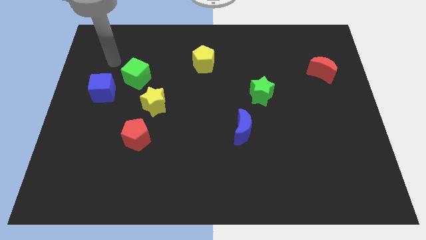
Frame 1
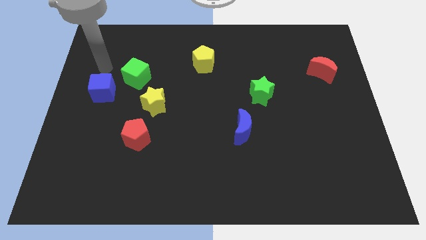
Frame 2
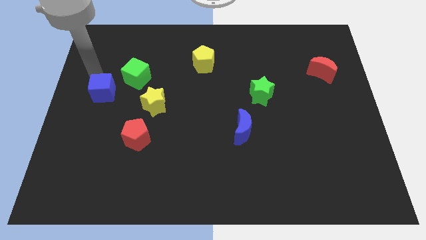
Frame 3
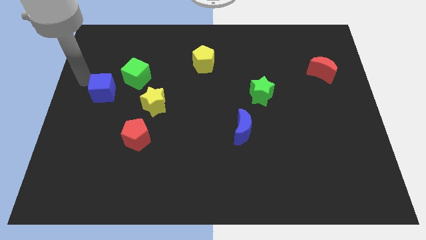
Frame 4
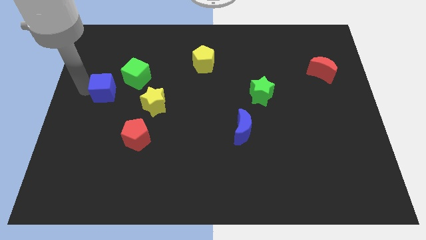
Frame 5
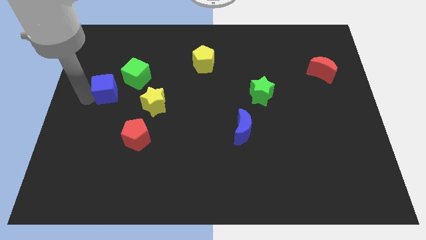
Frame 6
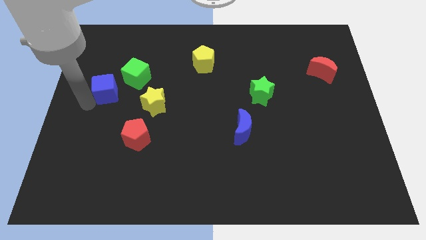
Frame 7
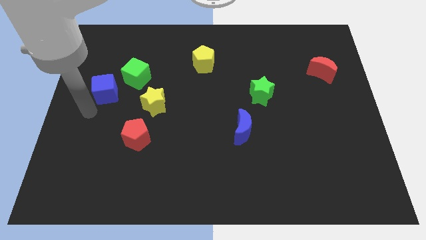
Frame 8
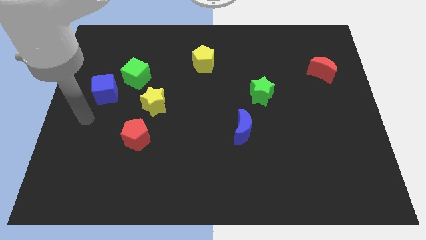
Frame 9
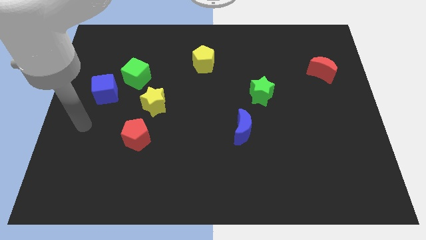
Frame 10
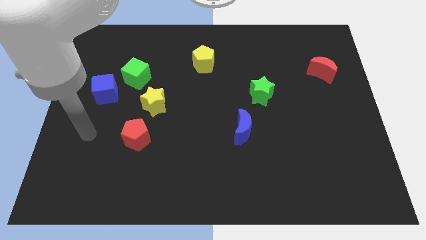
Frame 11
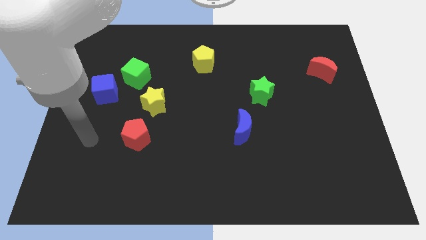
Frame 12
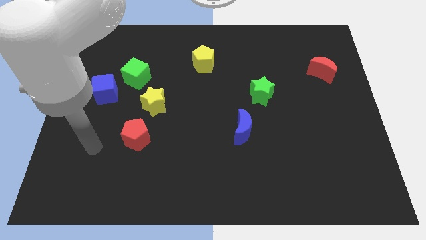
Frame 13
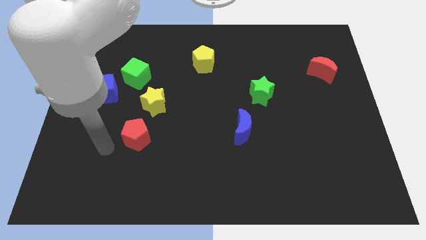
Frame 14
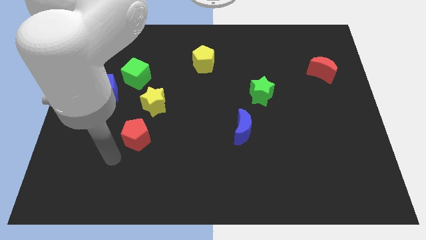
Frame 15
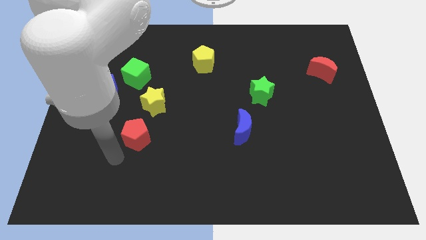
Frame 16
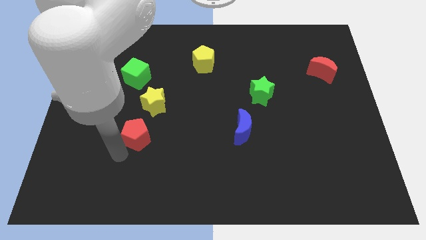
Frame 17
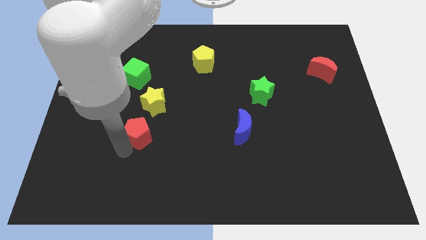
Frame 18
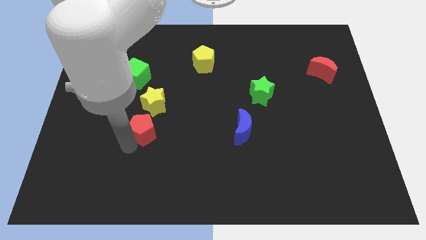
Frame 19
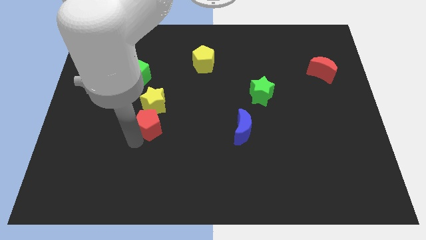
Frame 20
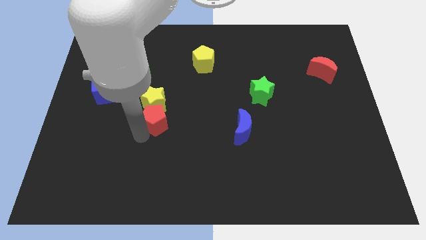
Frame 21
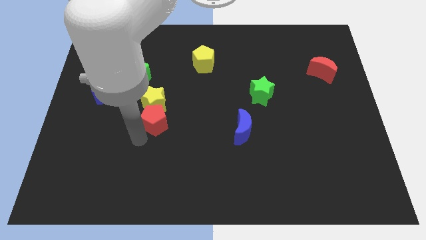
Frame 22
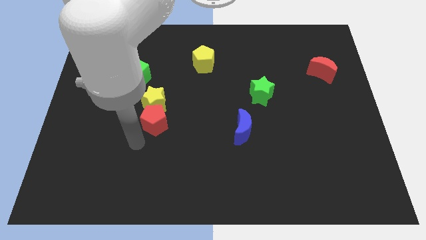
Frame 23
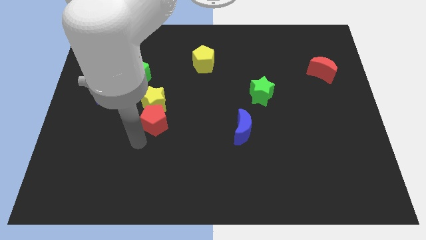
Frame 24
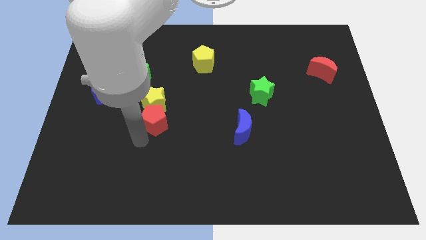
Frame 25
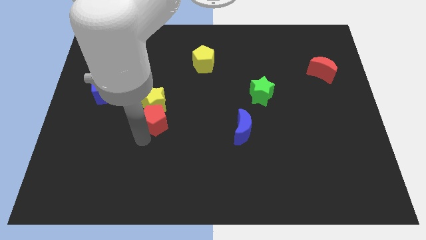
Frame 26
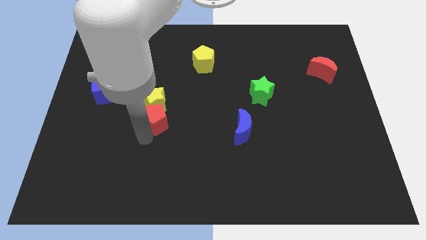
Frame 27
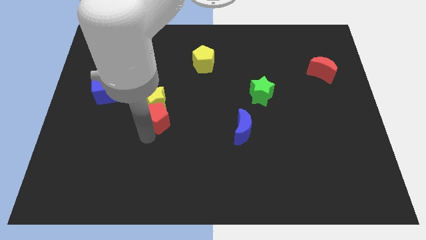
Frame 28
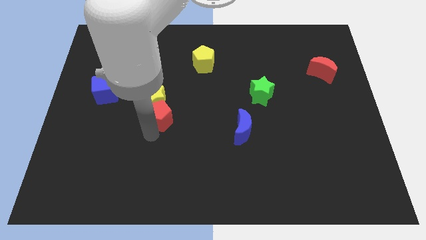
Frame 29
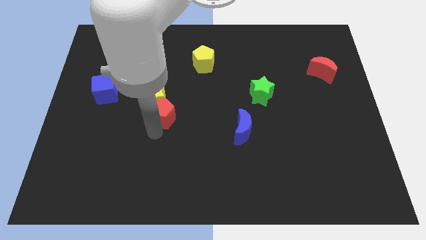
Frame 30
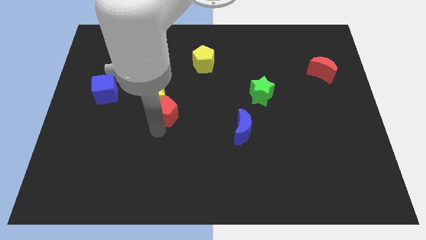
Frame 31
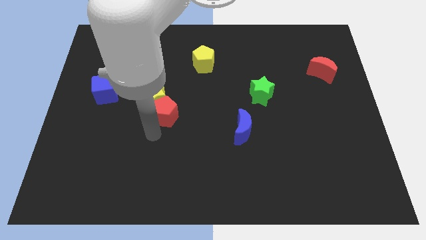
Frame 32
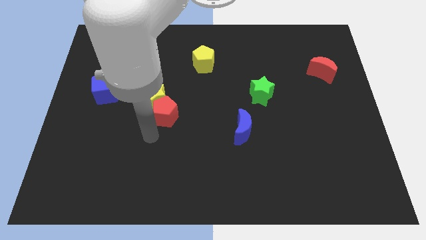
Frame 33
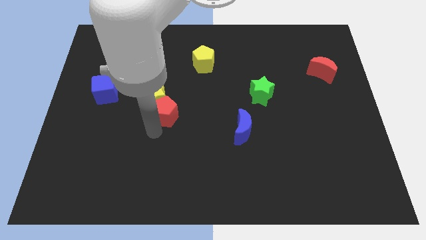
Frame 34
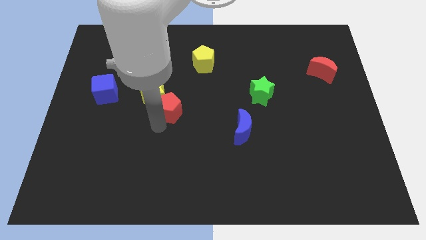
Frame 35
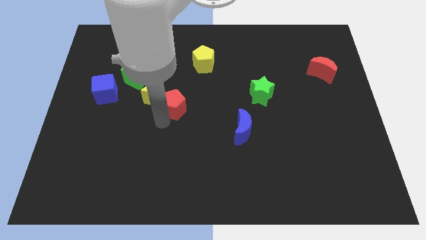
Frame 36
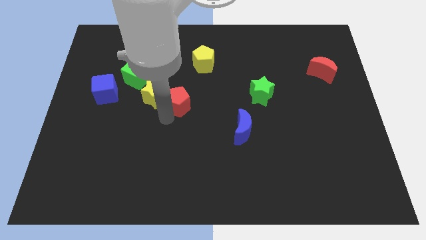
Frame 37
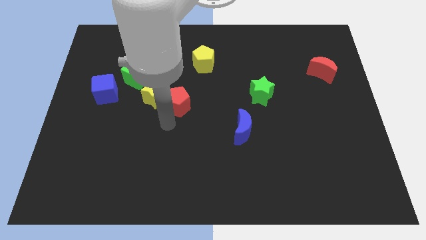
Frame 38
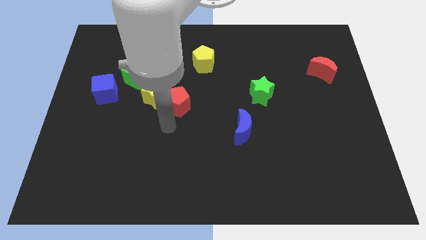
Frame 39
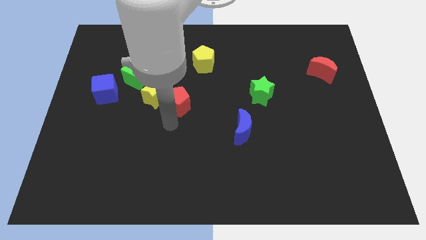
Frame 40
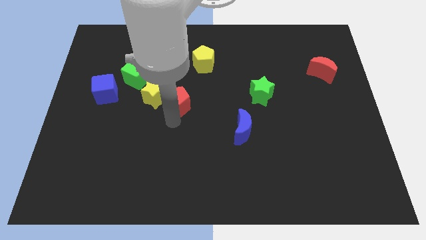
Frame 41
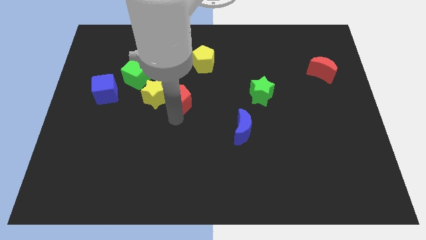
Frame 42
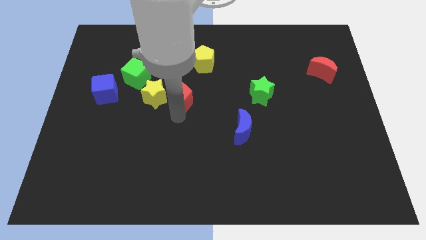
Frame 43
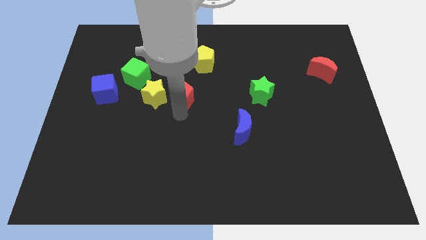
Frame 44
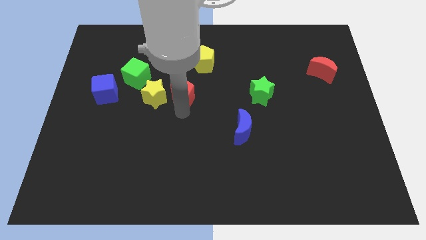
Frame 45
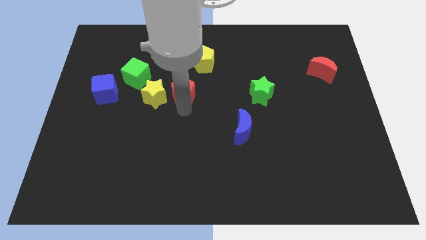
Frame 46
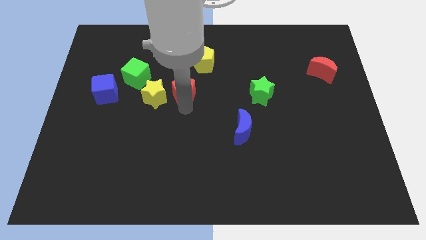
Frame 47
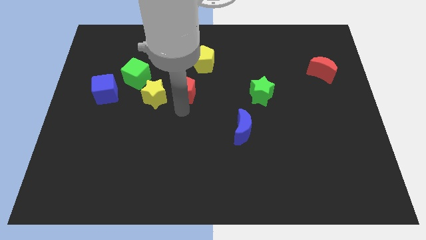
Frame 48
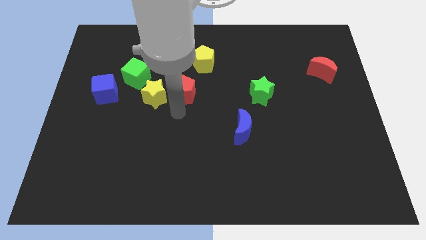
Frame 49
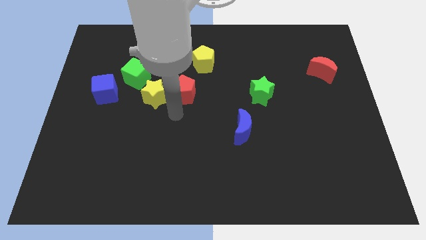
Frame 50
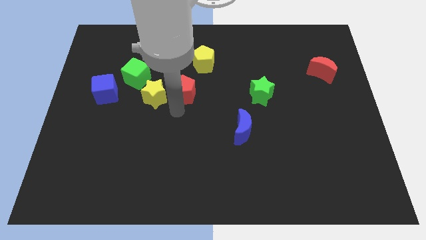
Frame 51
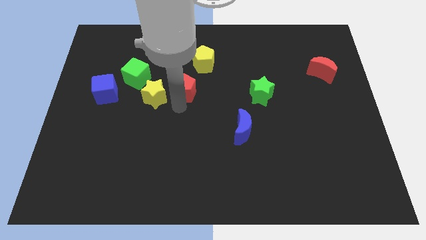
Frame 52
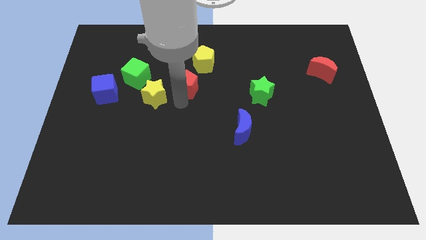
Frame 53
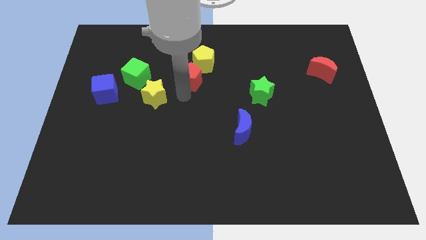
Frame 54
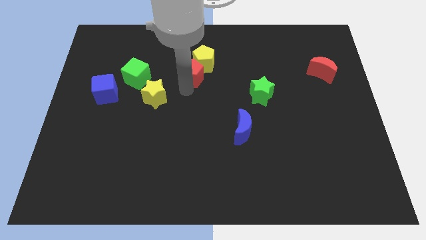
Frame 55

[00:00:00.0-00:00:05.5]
move the red pentagon towards the yellow pentagon

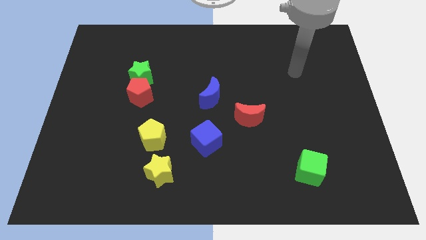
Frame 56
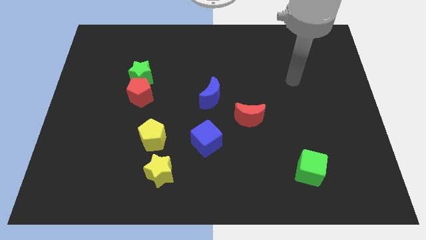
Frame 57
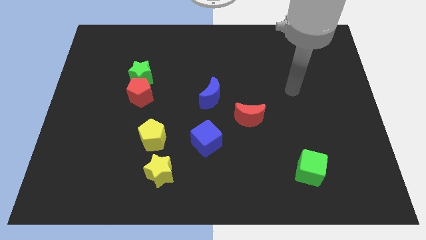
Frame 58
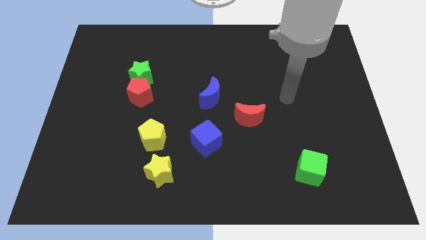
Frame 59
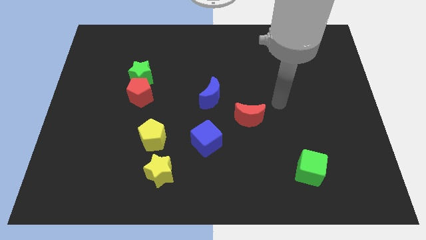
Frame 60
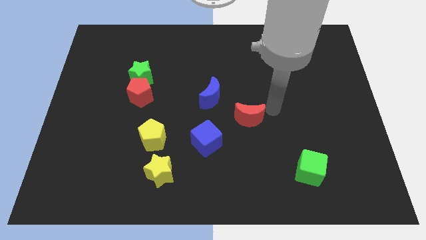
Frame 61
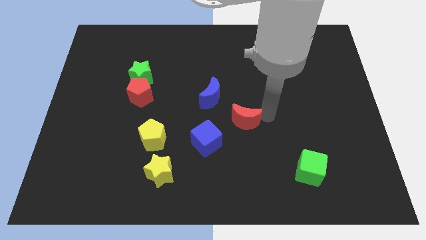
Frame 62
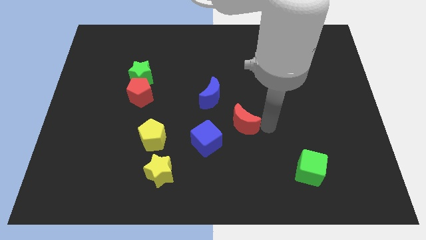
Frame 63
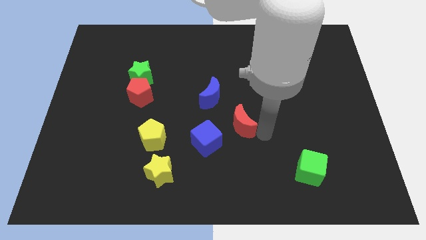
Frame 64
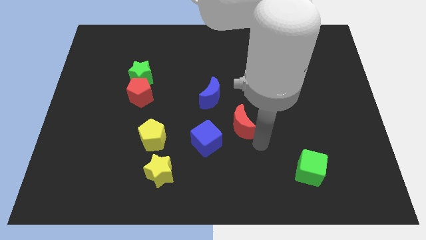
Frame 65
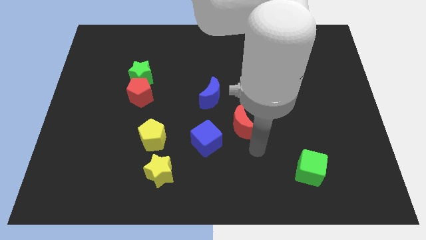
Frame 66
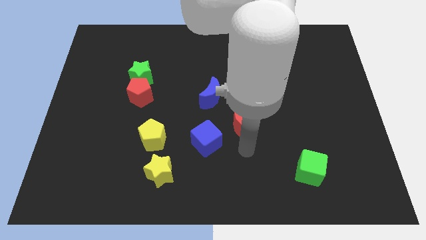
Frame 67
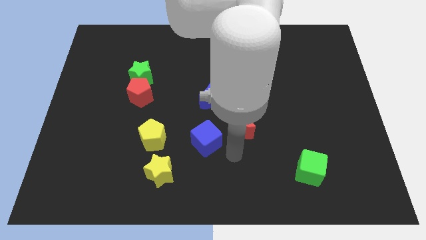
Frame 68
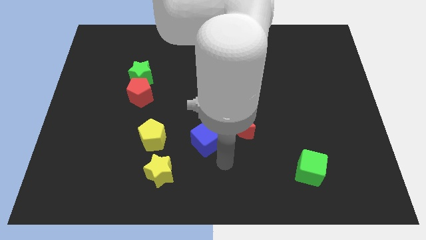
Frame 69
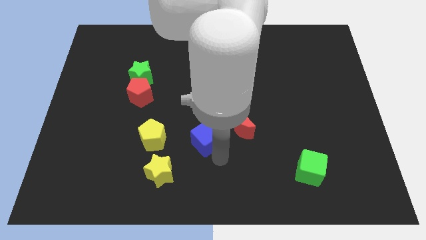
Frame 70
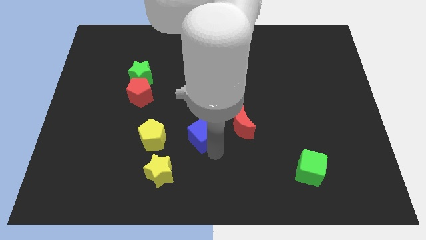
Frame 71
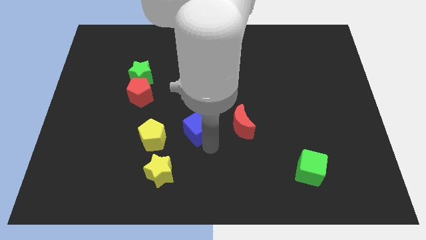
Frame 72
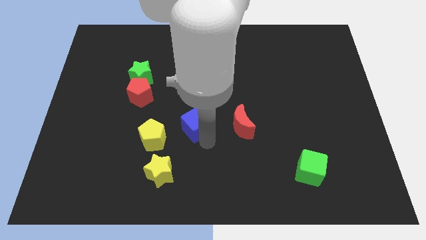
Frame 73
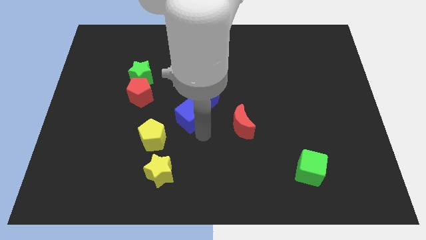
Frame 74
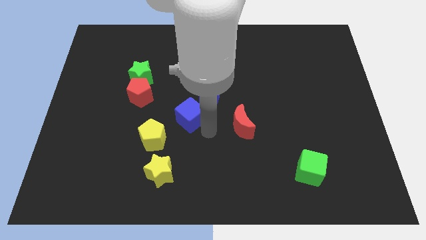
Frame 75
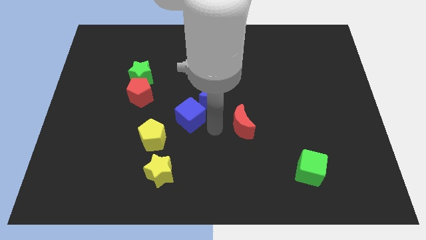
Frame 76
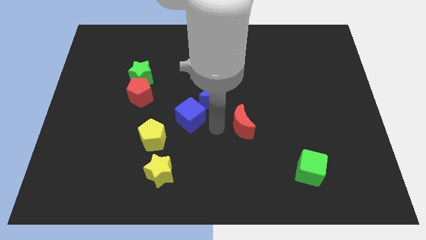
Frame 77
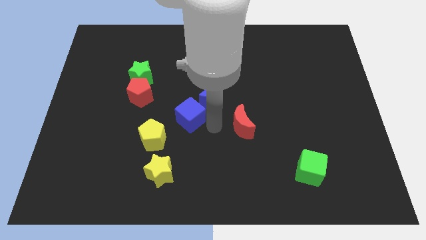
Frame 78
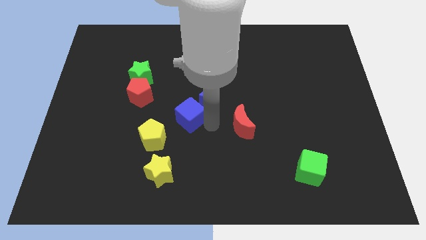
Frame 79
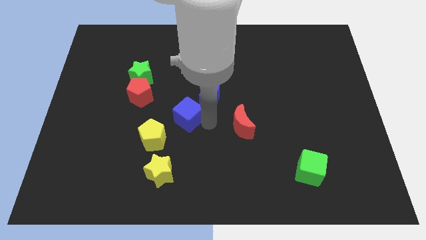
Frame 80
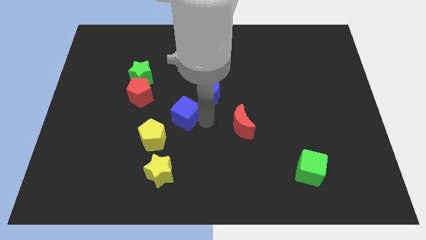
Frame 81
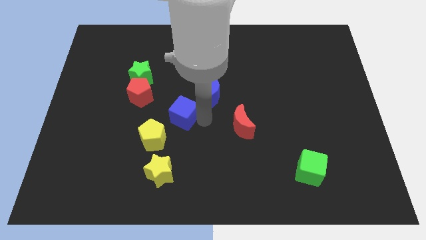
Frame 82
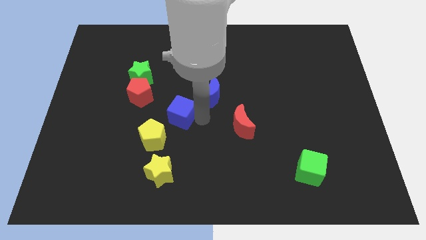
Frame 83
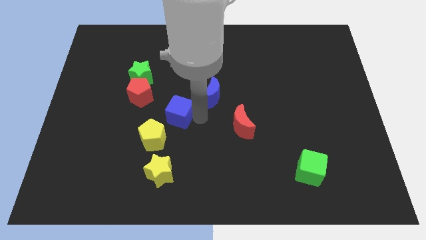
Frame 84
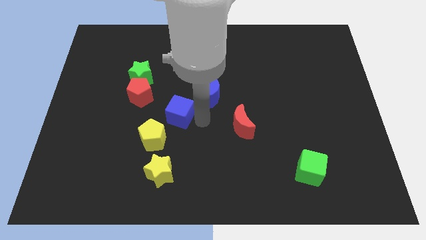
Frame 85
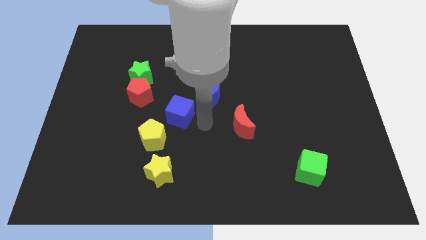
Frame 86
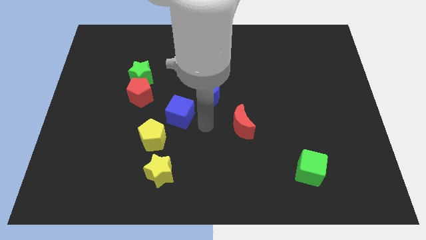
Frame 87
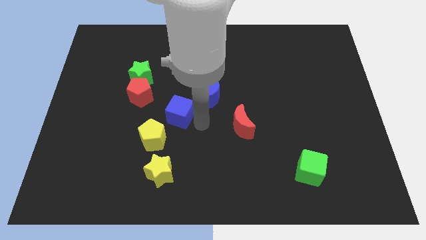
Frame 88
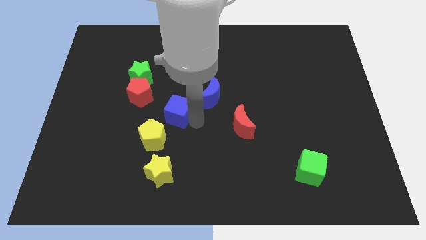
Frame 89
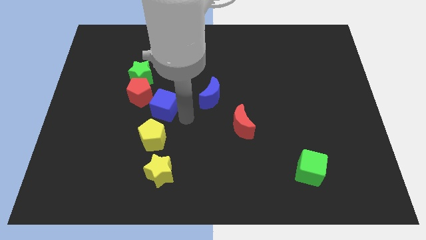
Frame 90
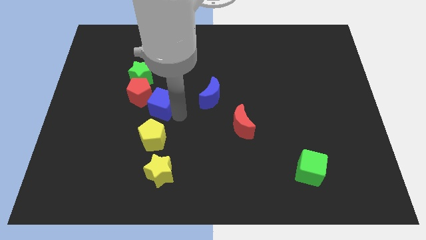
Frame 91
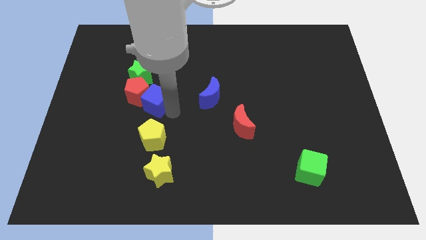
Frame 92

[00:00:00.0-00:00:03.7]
move the blue cube towards the red pentagon
